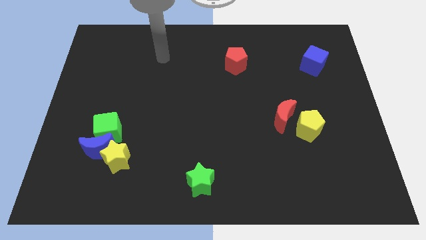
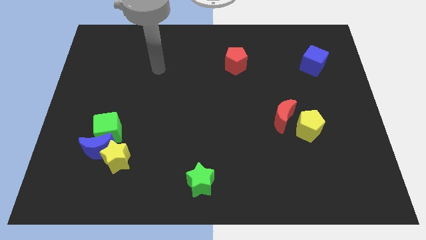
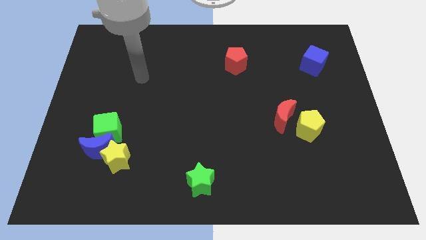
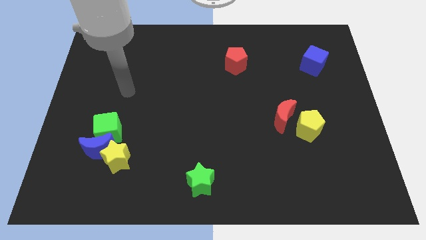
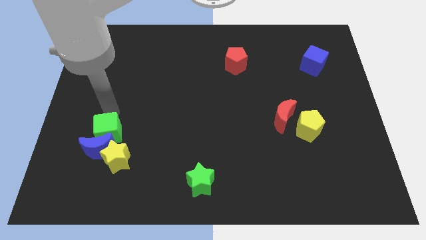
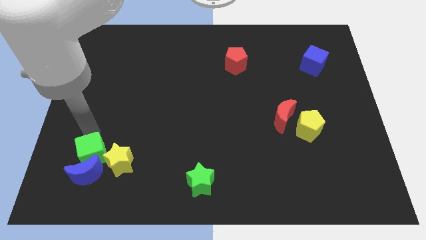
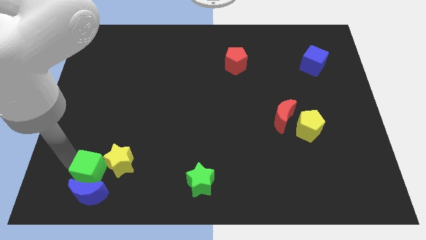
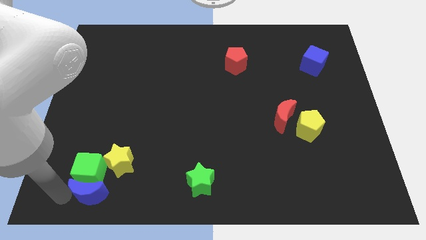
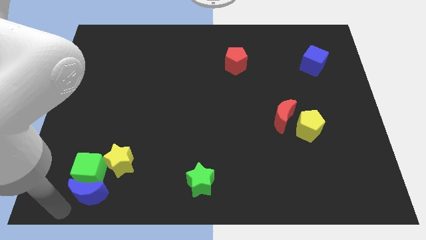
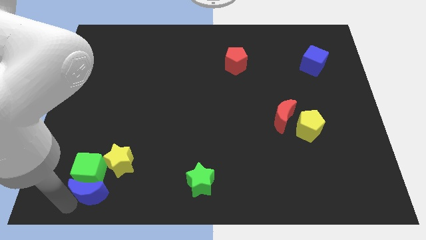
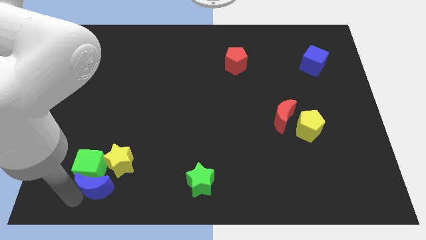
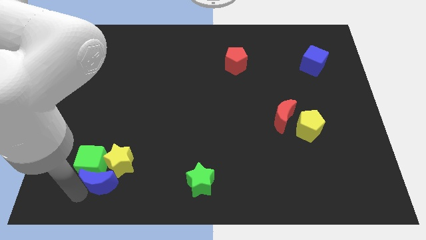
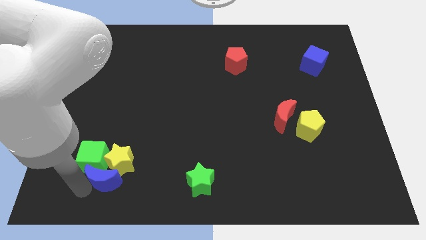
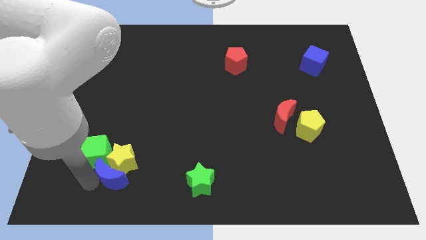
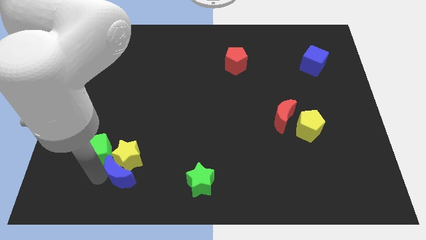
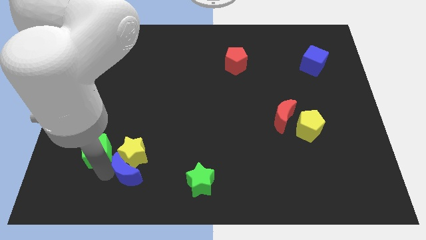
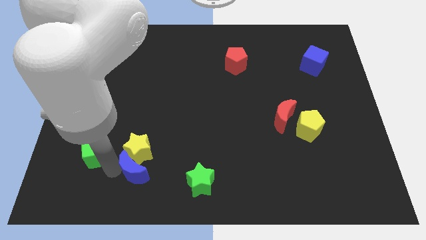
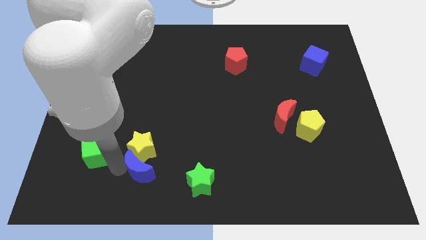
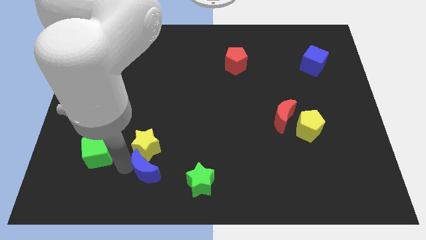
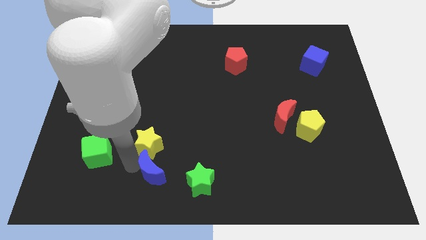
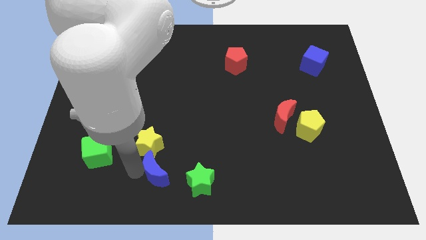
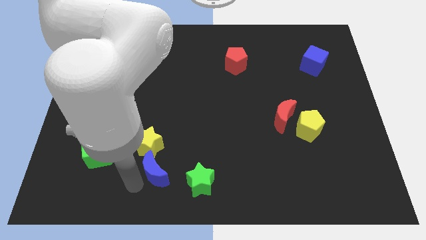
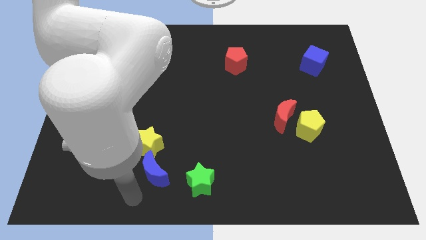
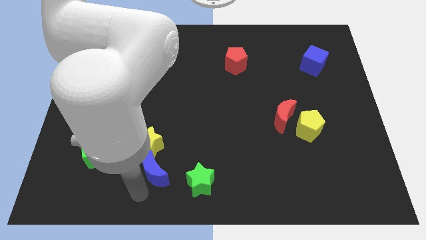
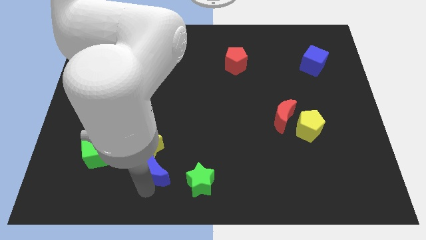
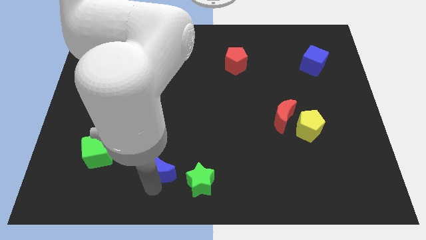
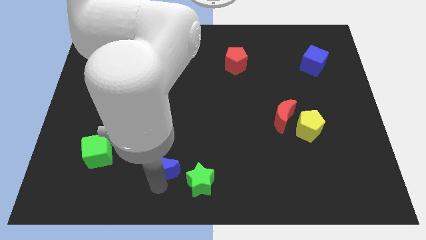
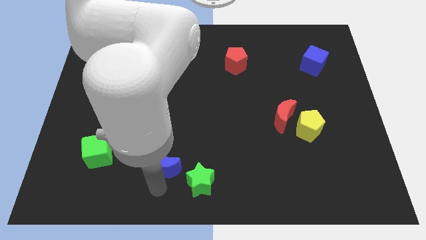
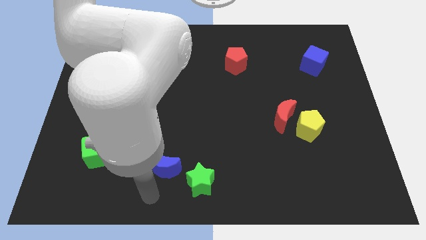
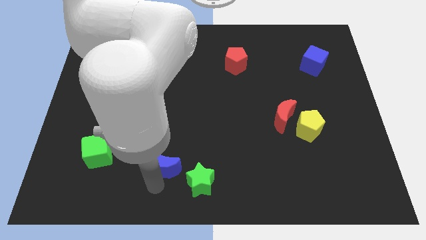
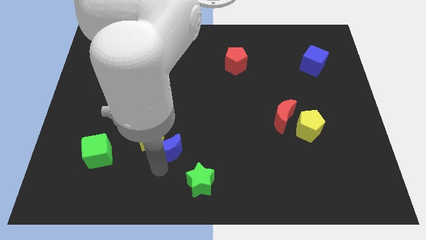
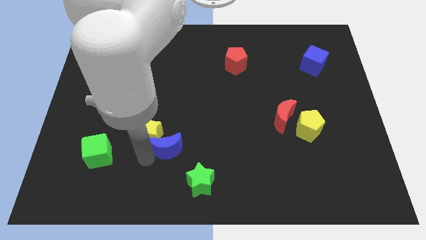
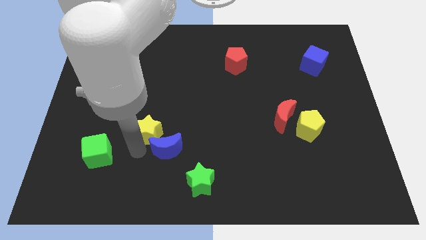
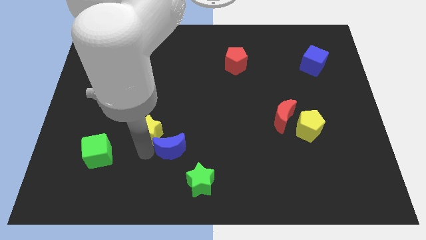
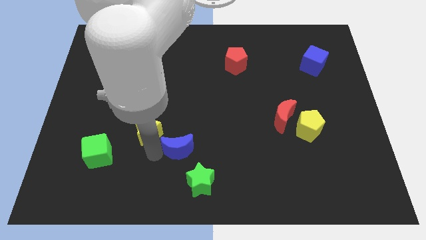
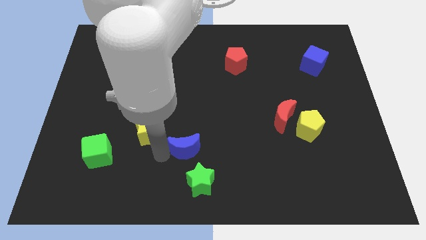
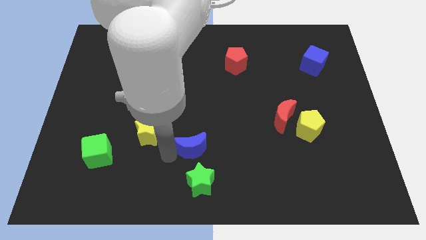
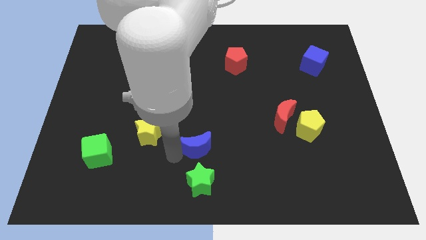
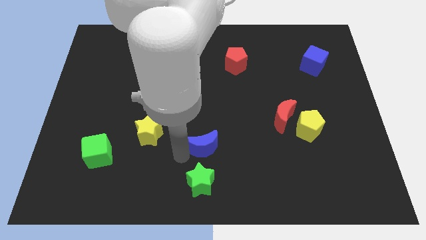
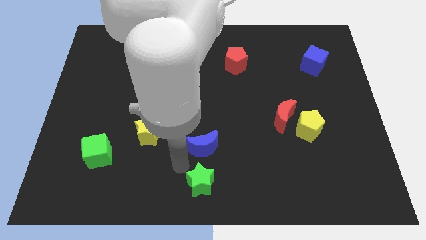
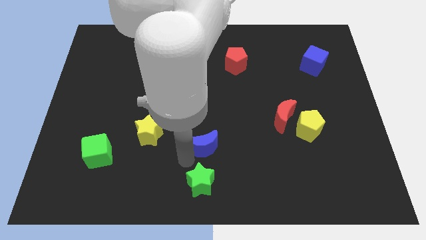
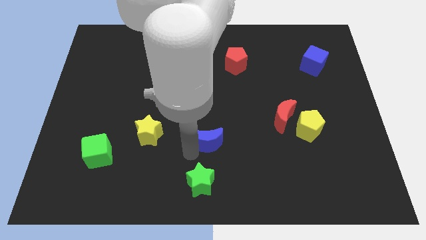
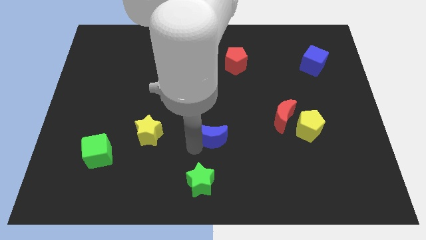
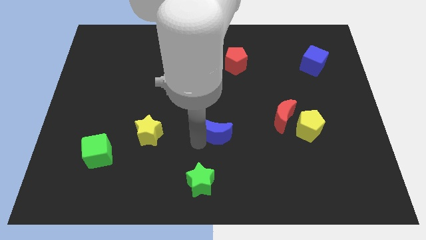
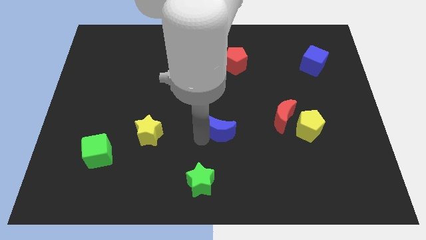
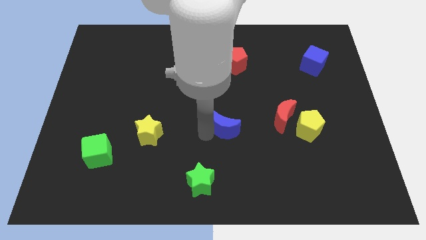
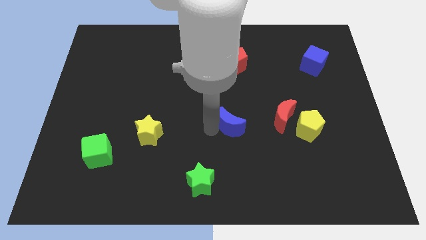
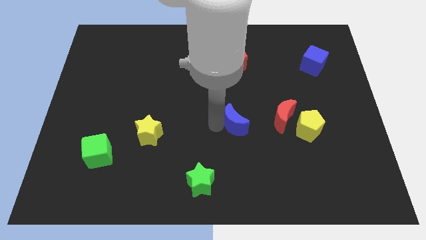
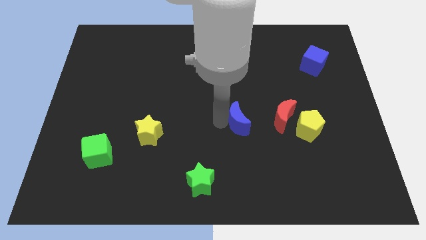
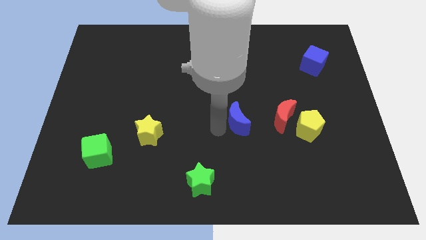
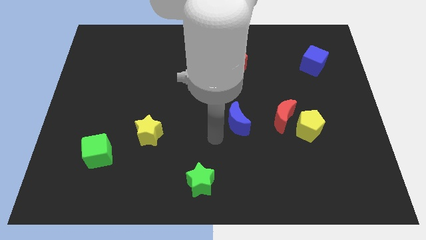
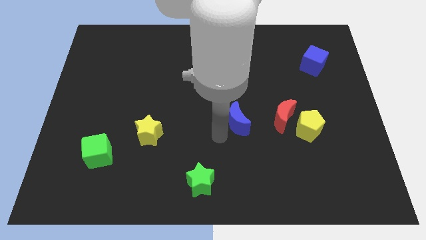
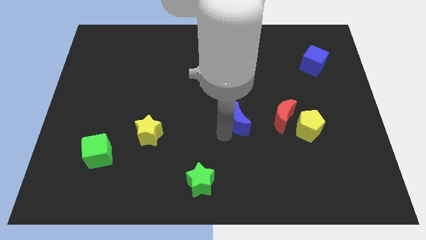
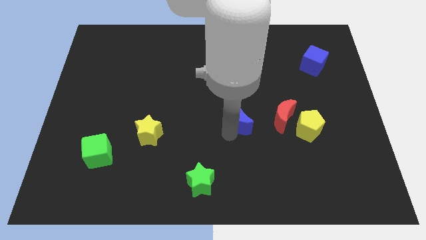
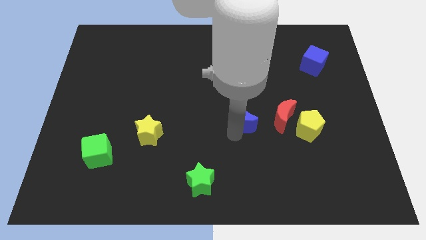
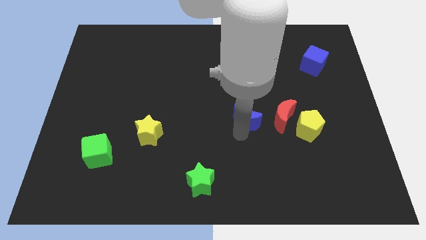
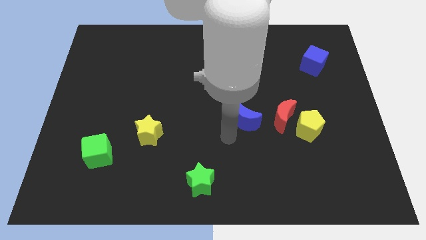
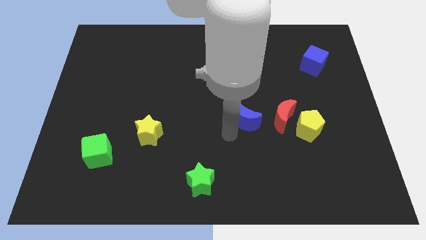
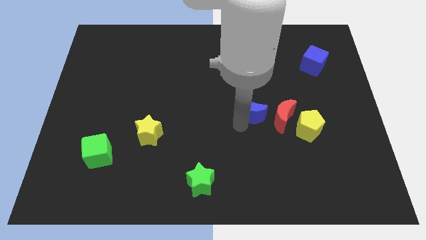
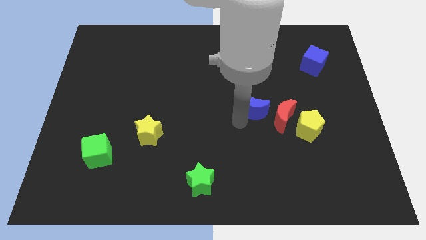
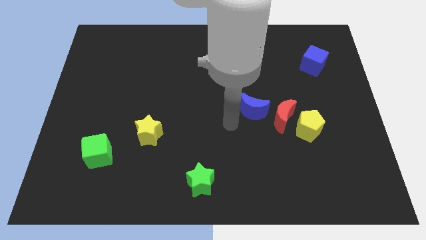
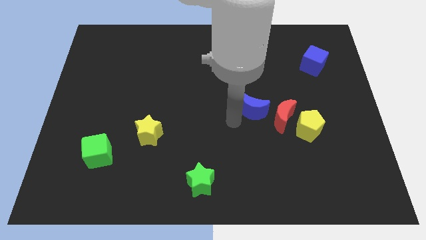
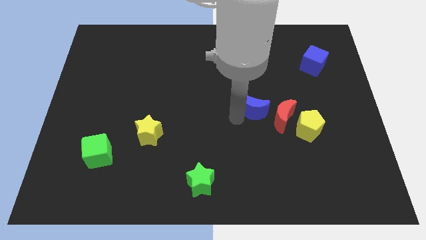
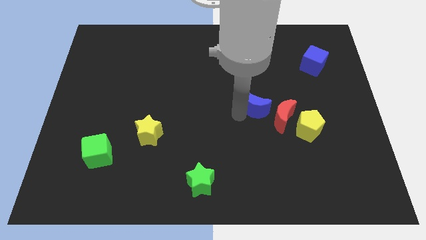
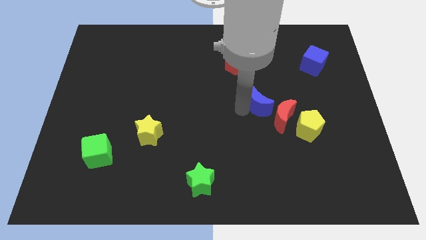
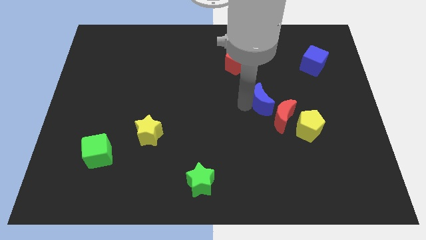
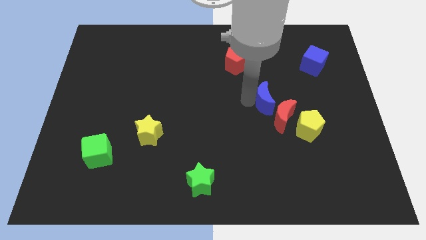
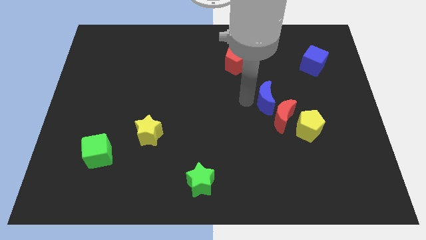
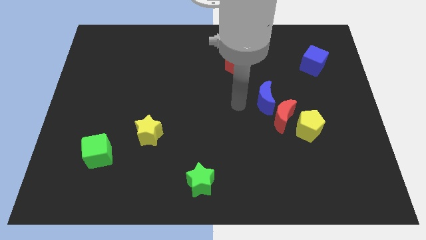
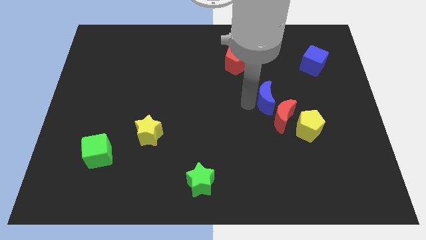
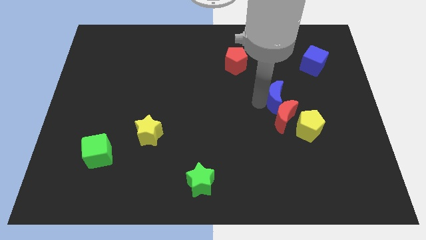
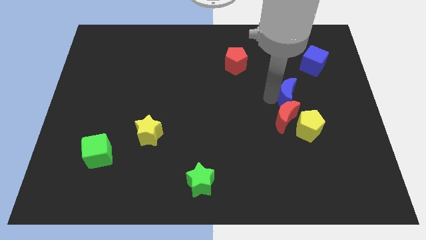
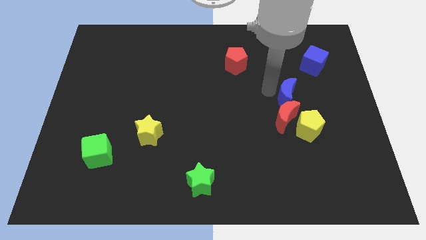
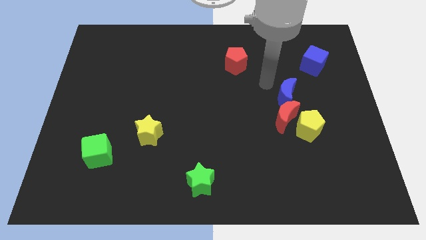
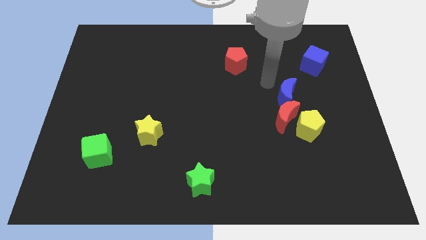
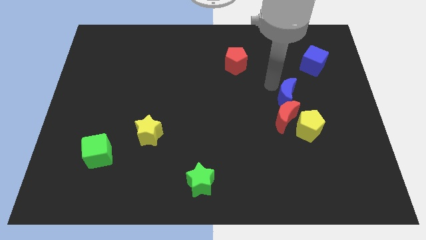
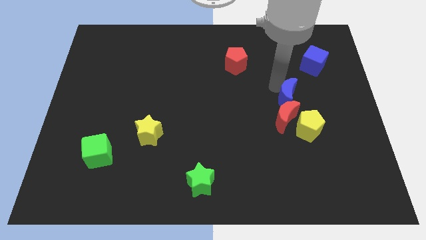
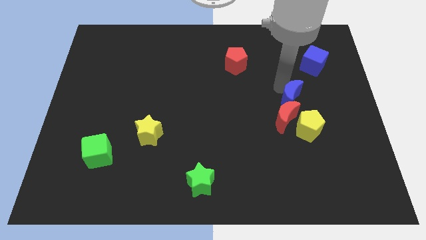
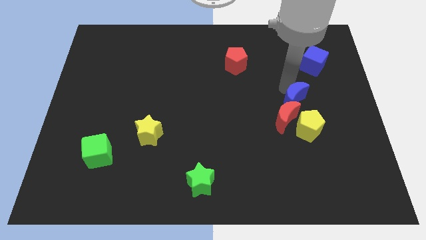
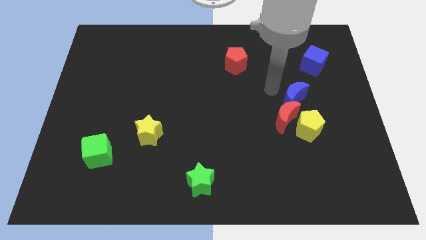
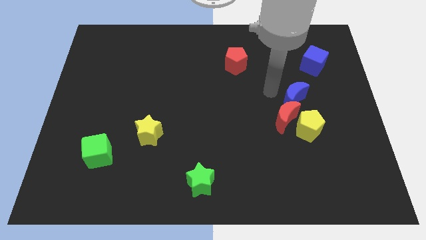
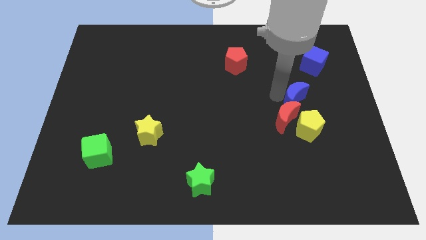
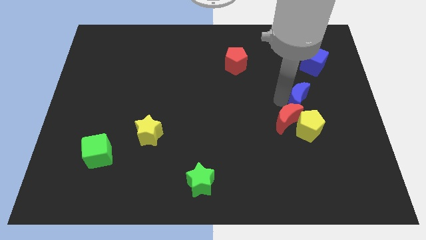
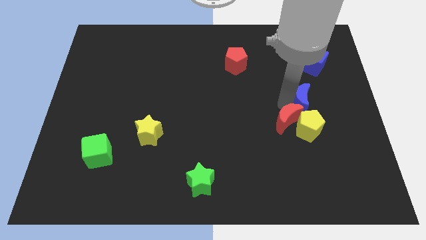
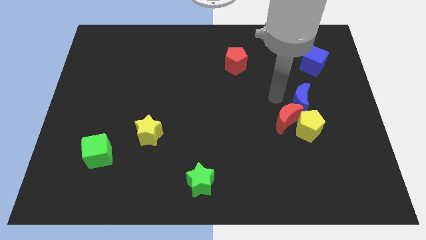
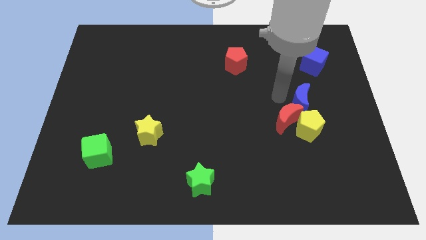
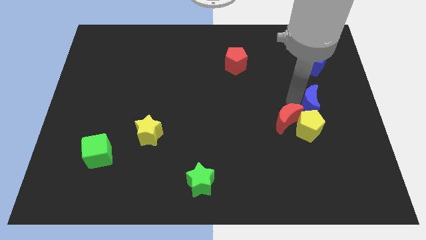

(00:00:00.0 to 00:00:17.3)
put the blue moon to the top right side of the yellow pentagon
